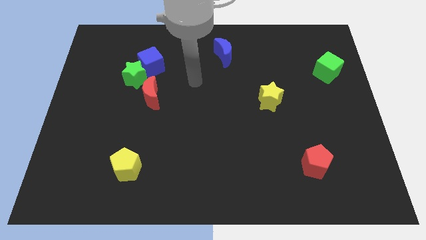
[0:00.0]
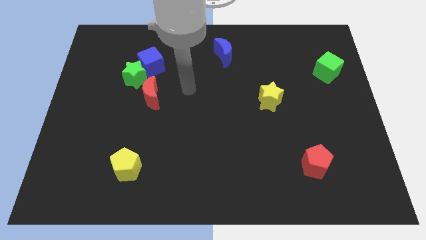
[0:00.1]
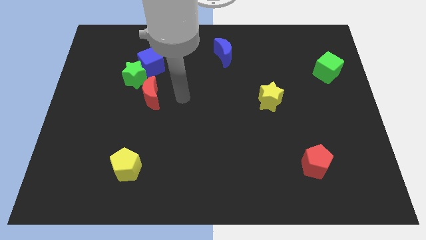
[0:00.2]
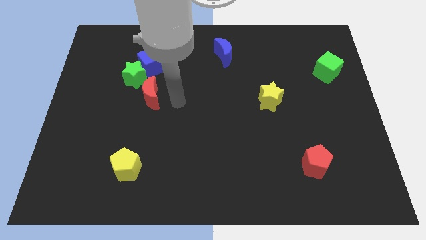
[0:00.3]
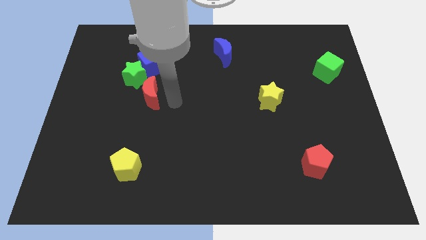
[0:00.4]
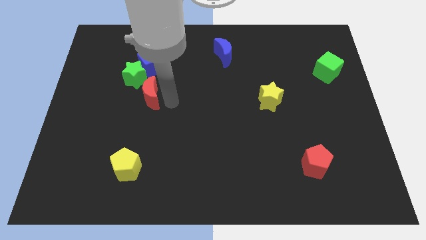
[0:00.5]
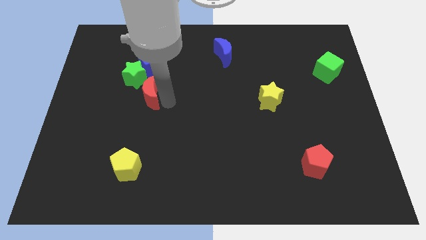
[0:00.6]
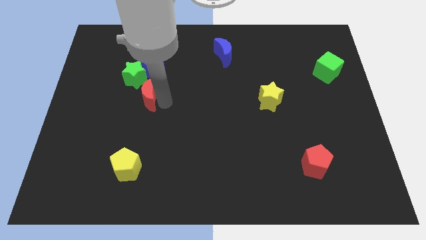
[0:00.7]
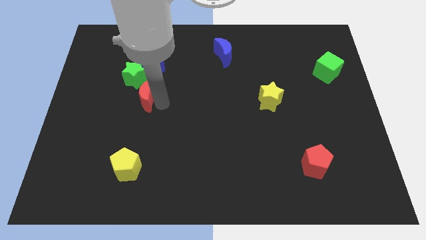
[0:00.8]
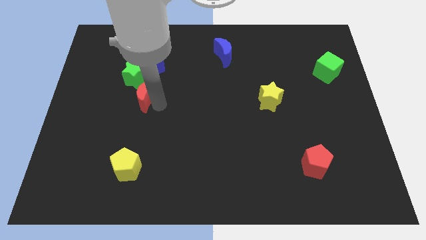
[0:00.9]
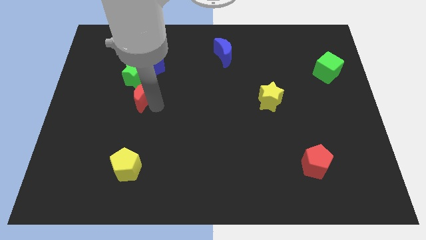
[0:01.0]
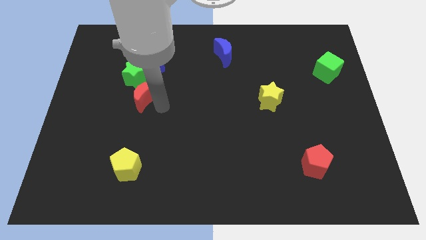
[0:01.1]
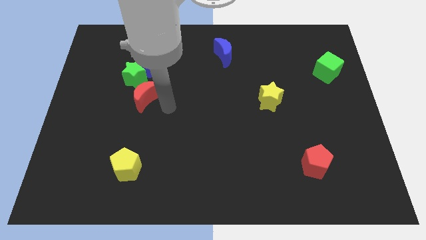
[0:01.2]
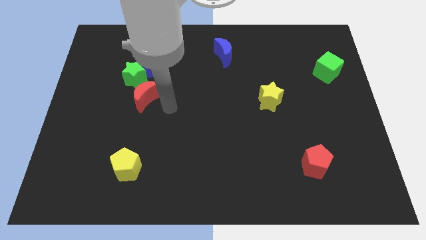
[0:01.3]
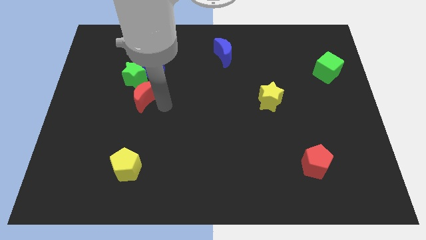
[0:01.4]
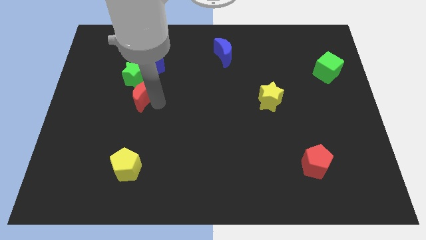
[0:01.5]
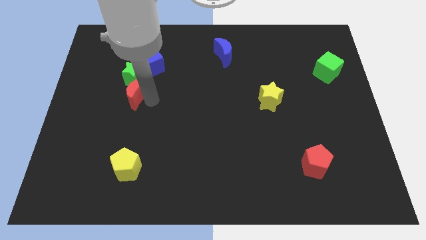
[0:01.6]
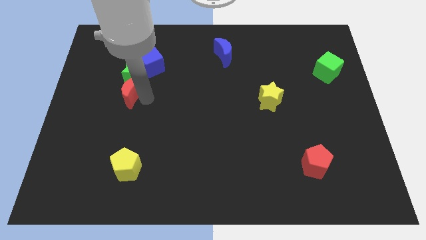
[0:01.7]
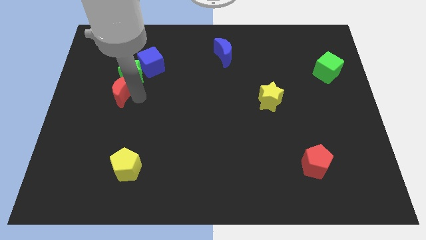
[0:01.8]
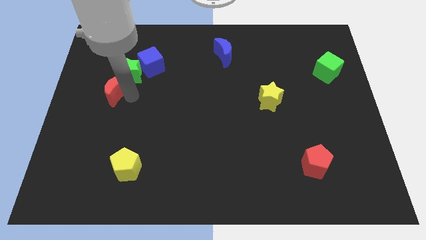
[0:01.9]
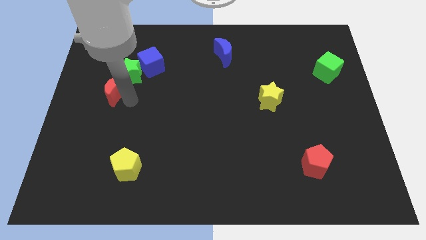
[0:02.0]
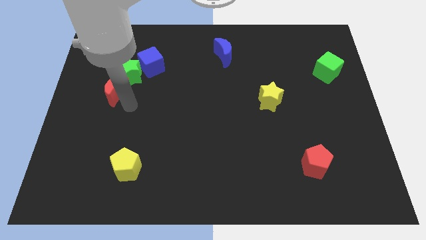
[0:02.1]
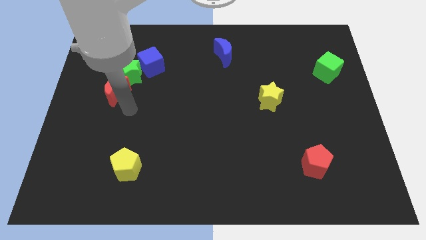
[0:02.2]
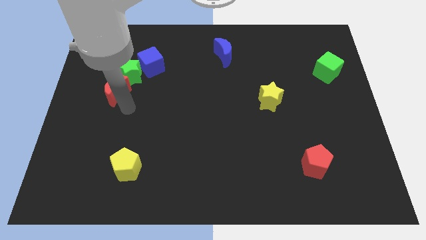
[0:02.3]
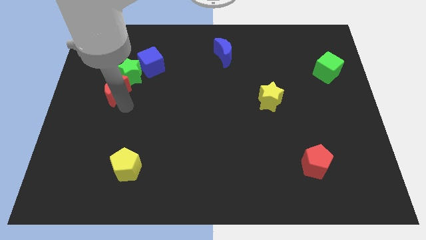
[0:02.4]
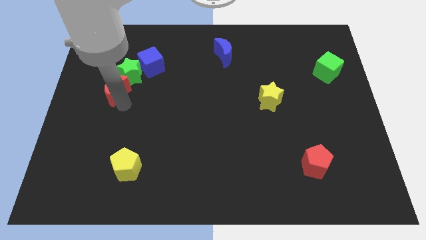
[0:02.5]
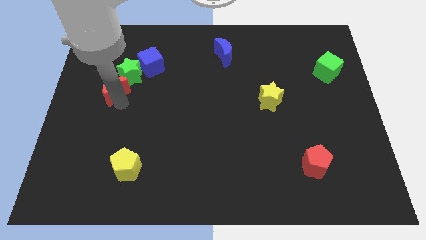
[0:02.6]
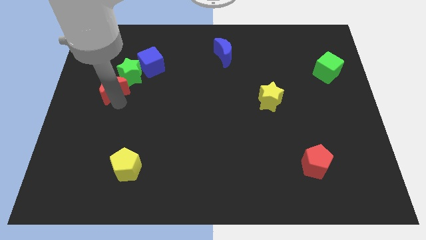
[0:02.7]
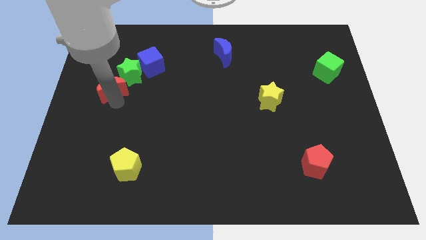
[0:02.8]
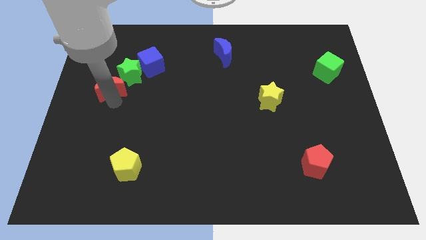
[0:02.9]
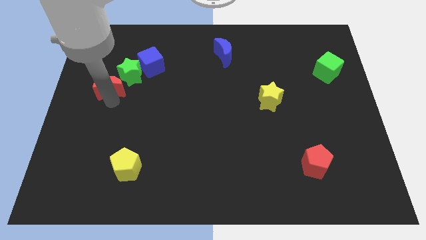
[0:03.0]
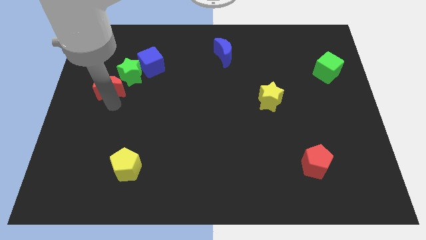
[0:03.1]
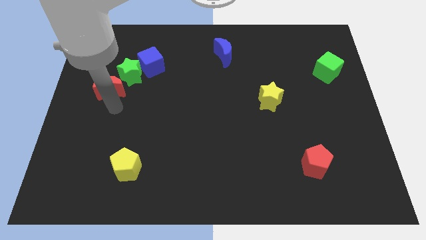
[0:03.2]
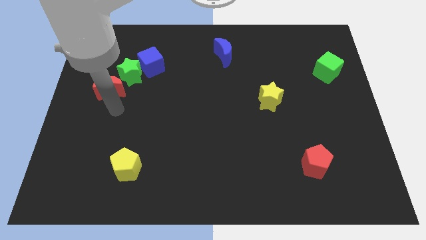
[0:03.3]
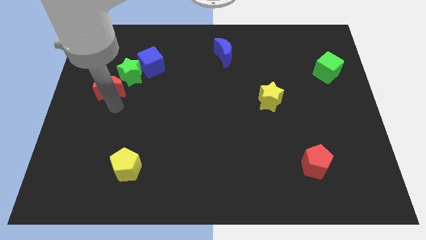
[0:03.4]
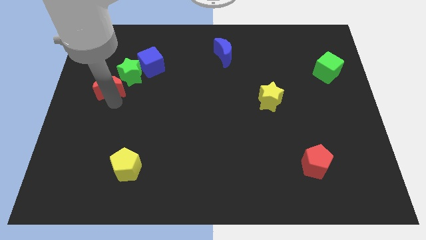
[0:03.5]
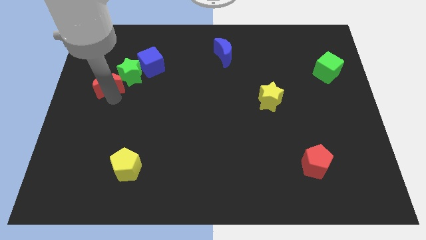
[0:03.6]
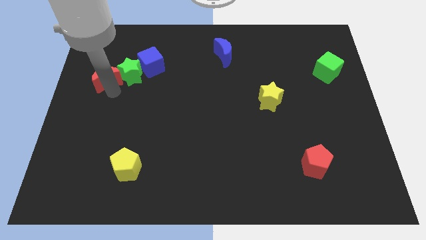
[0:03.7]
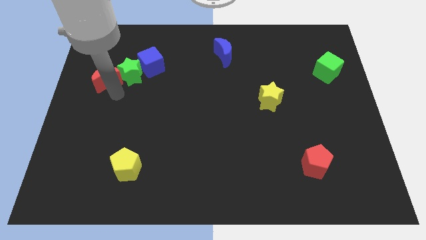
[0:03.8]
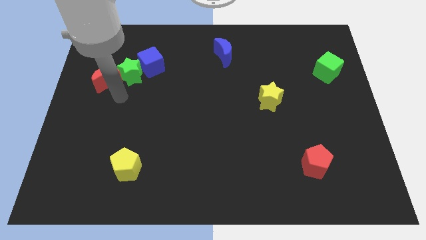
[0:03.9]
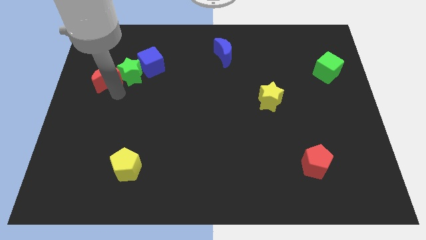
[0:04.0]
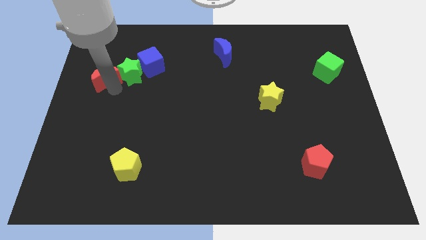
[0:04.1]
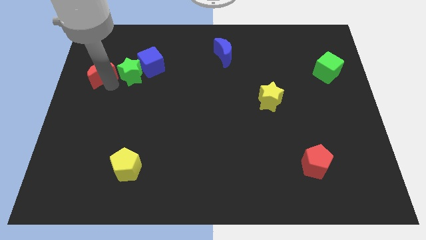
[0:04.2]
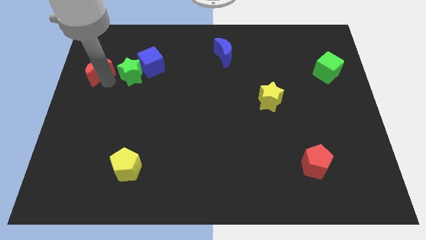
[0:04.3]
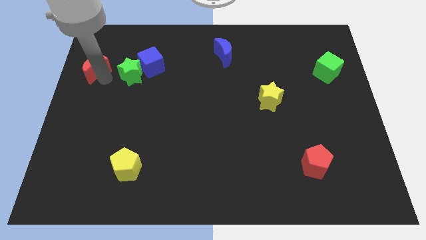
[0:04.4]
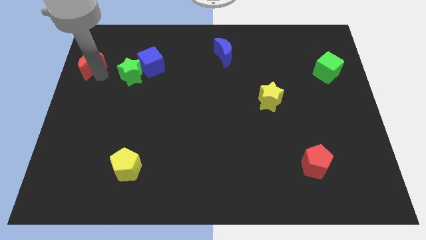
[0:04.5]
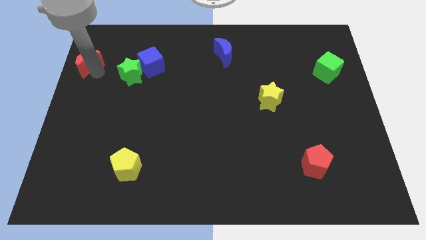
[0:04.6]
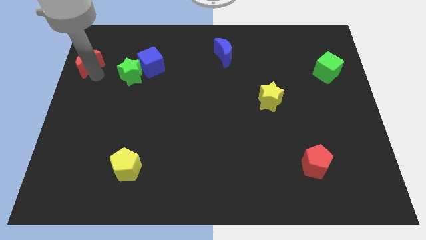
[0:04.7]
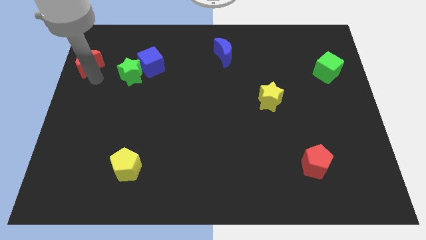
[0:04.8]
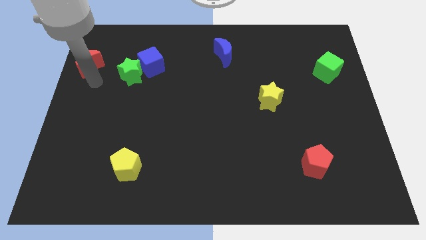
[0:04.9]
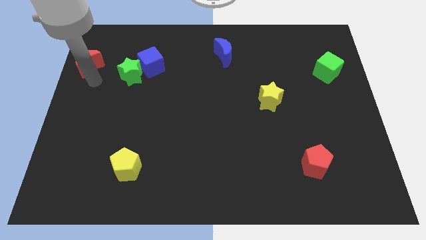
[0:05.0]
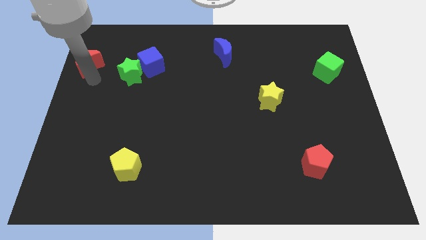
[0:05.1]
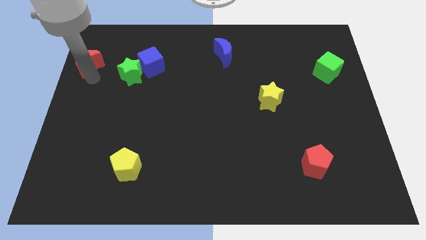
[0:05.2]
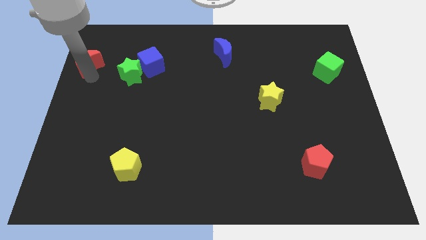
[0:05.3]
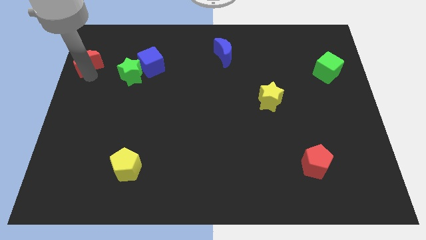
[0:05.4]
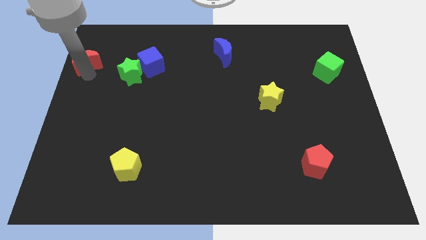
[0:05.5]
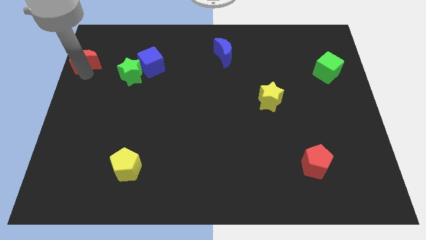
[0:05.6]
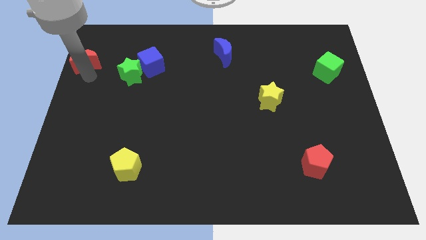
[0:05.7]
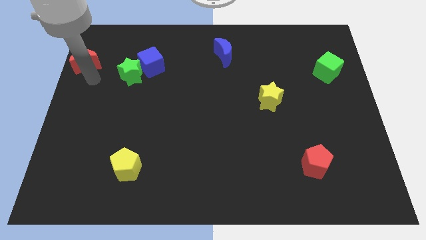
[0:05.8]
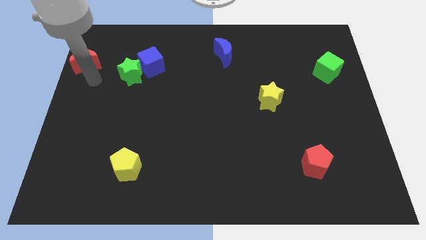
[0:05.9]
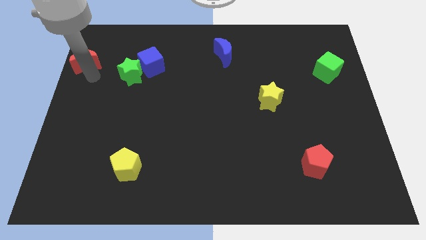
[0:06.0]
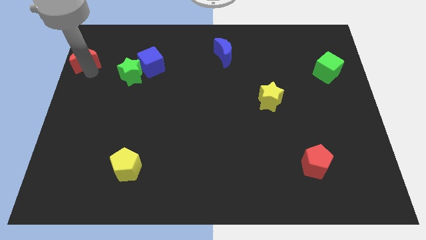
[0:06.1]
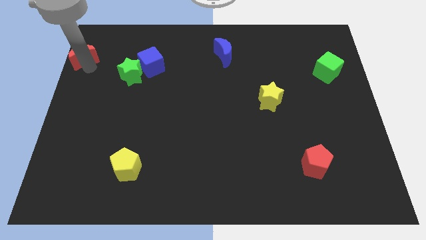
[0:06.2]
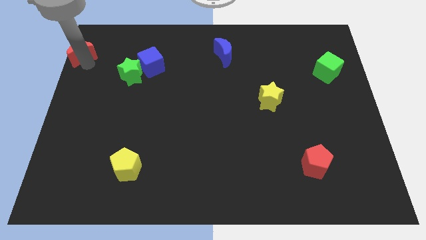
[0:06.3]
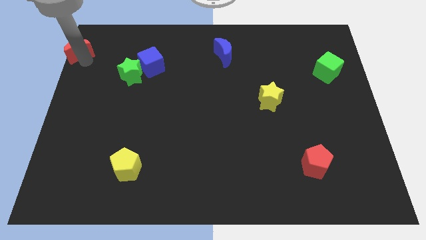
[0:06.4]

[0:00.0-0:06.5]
slide the red moon to the top left corner

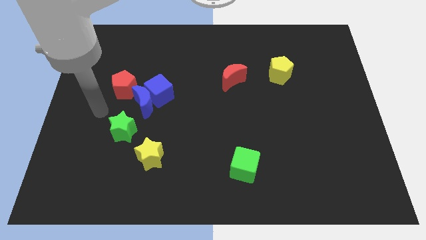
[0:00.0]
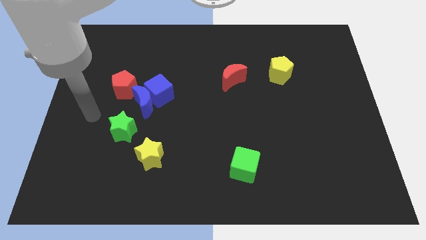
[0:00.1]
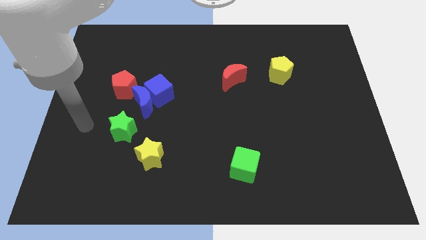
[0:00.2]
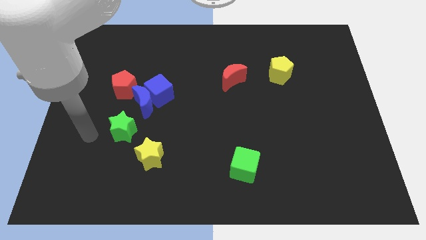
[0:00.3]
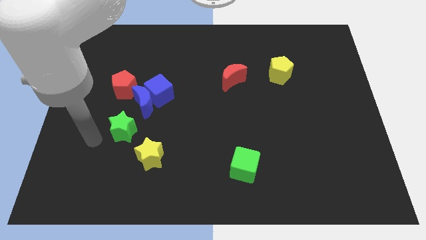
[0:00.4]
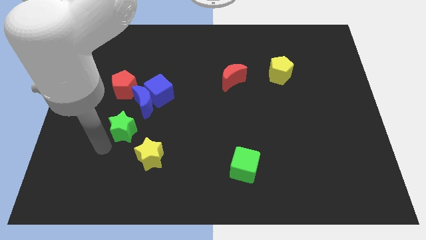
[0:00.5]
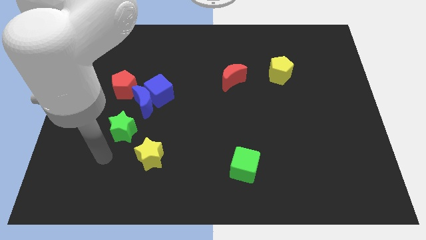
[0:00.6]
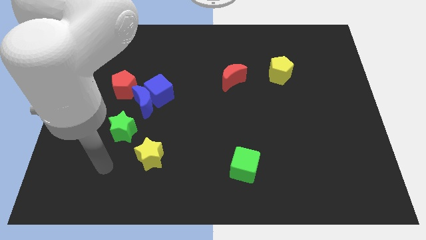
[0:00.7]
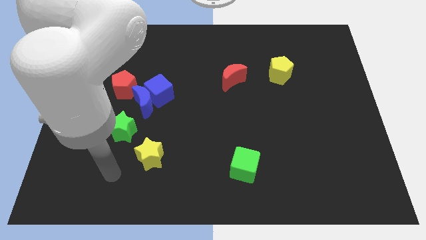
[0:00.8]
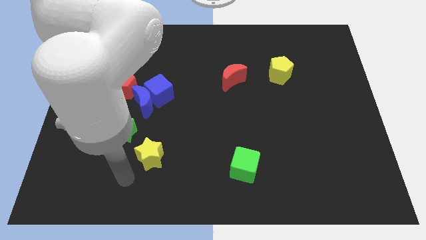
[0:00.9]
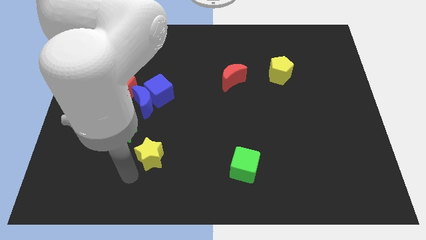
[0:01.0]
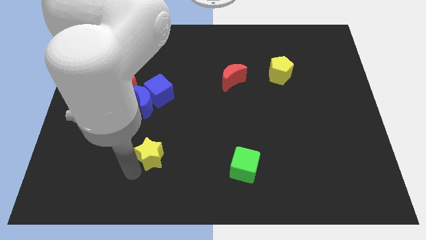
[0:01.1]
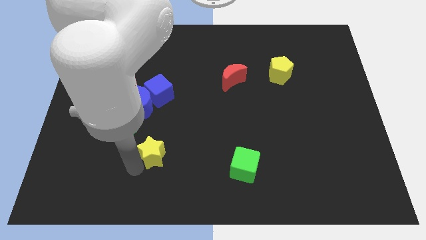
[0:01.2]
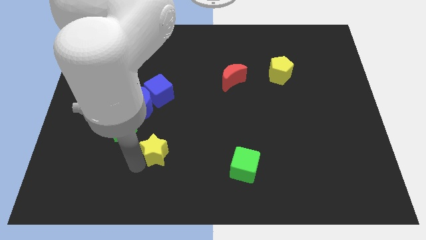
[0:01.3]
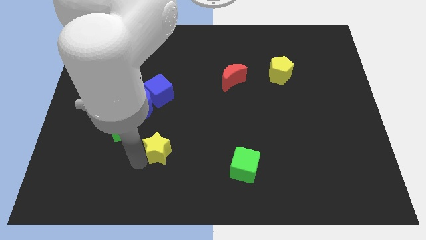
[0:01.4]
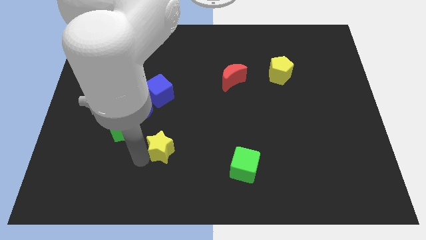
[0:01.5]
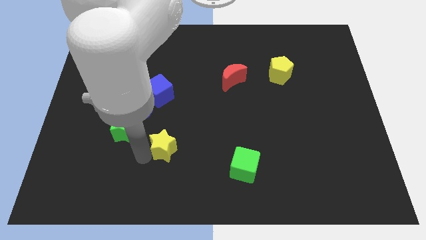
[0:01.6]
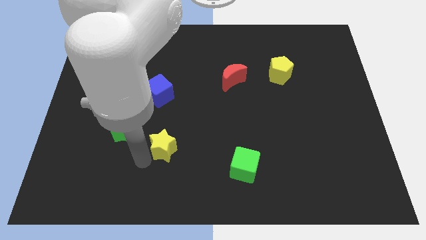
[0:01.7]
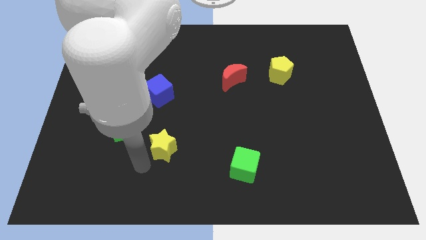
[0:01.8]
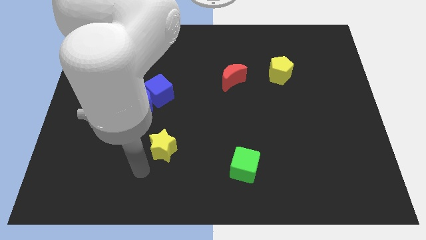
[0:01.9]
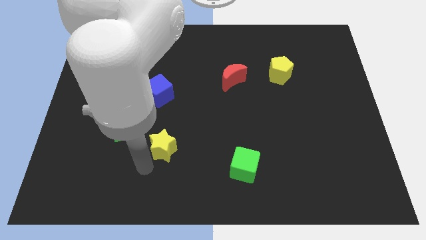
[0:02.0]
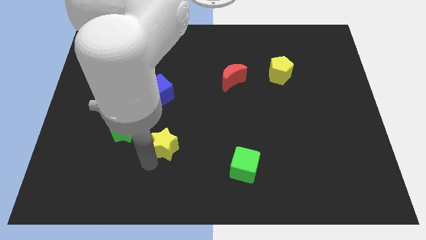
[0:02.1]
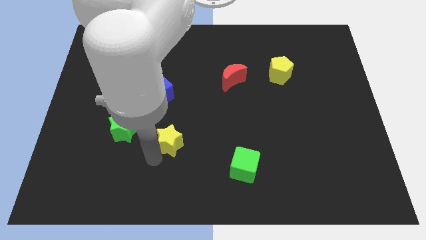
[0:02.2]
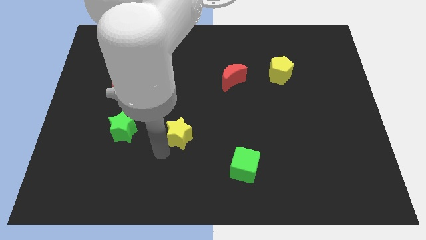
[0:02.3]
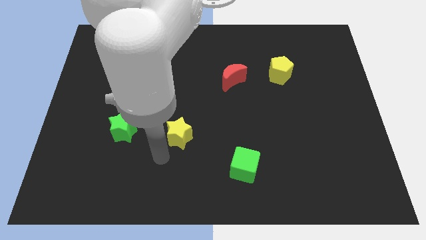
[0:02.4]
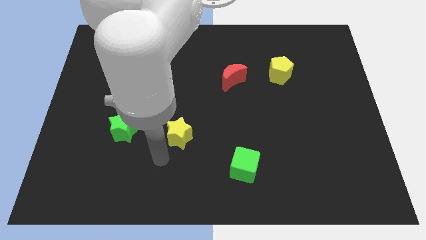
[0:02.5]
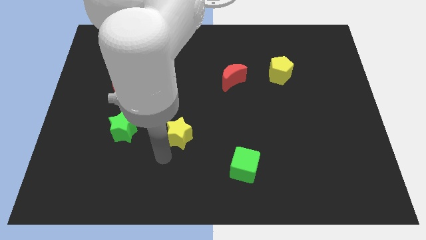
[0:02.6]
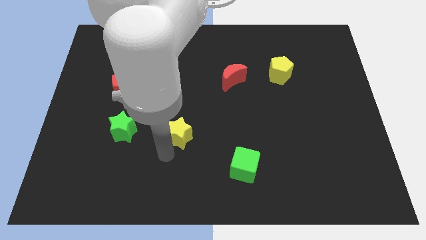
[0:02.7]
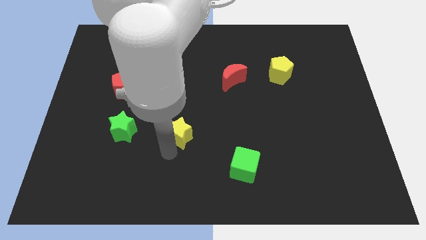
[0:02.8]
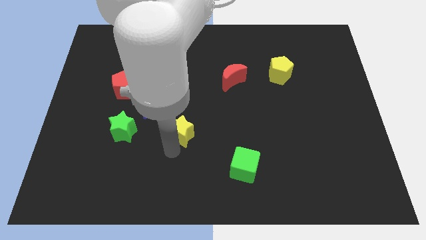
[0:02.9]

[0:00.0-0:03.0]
move the yellow star to the middle
